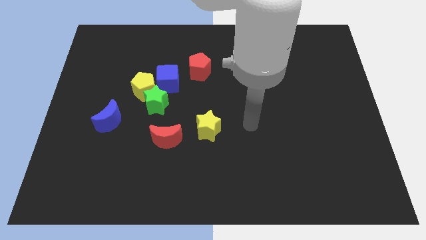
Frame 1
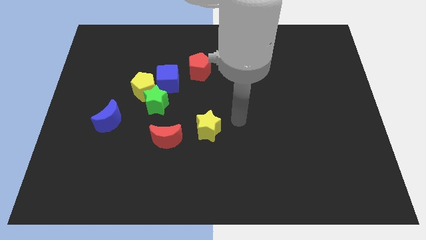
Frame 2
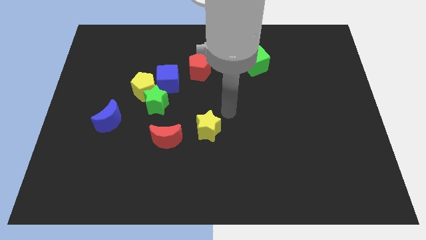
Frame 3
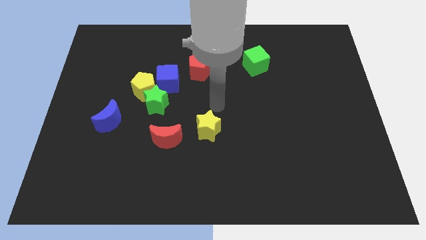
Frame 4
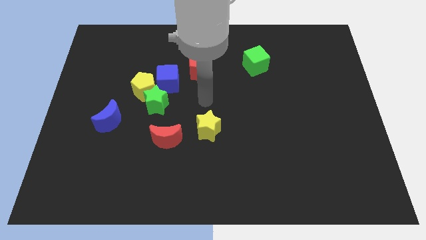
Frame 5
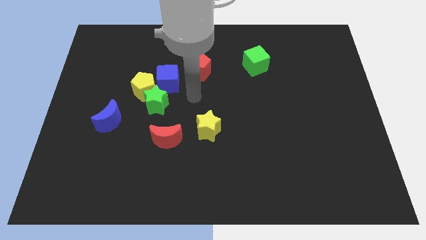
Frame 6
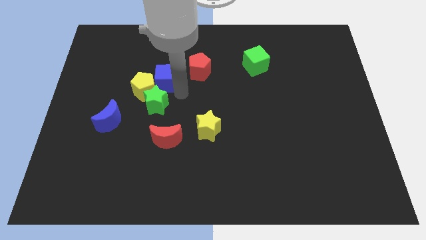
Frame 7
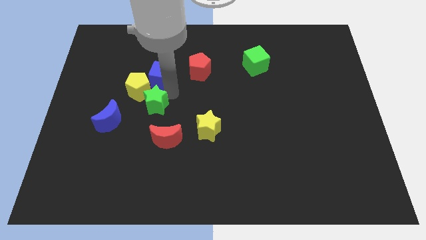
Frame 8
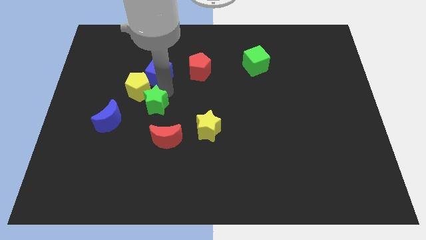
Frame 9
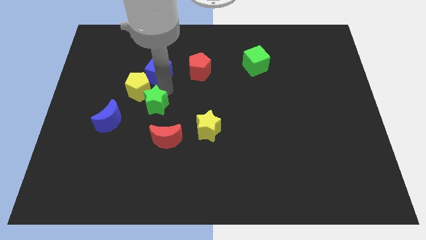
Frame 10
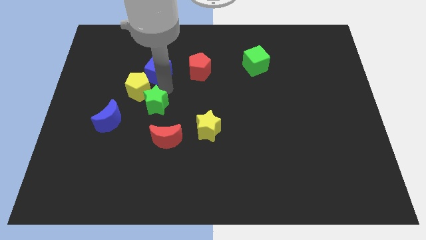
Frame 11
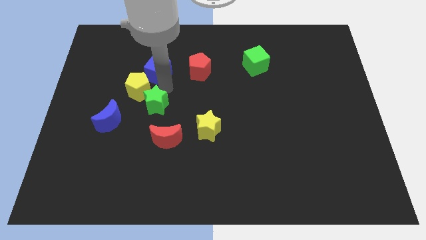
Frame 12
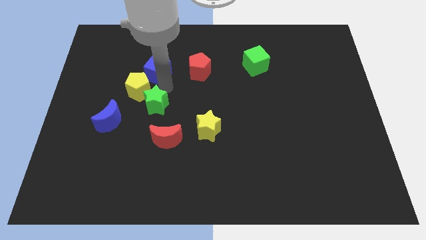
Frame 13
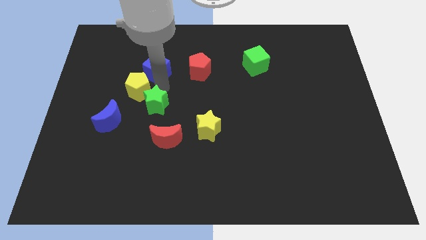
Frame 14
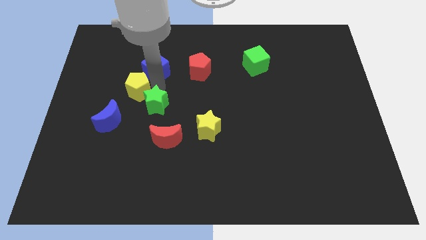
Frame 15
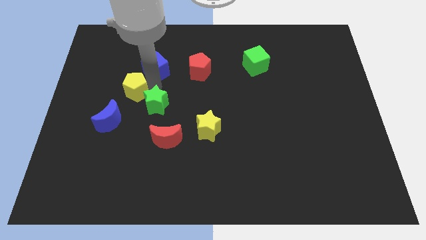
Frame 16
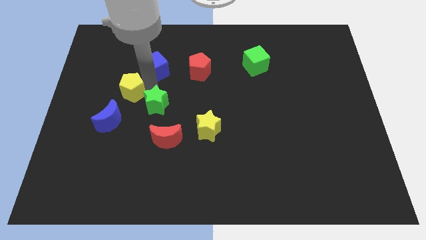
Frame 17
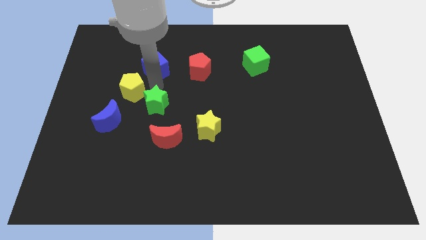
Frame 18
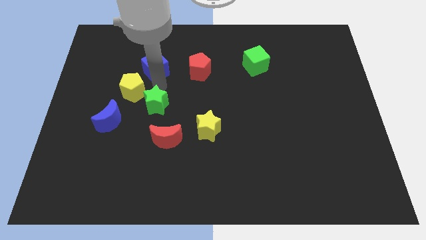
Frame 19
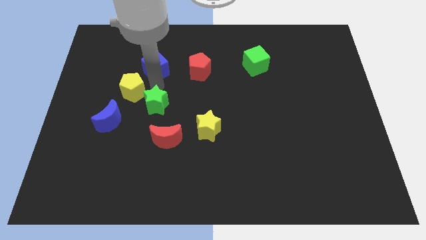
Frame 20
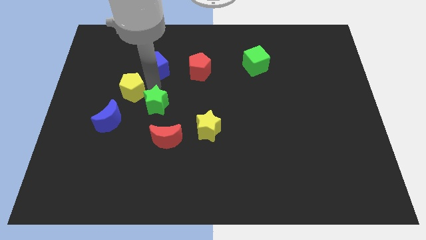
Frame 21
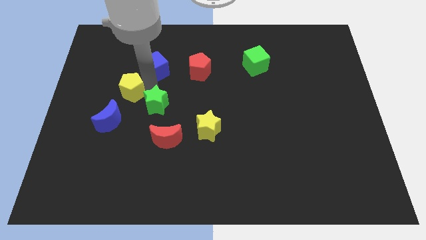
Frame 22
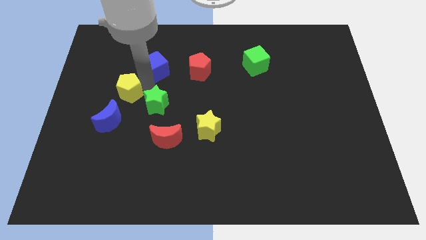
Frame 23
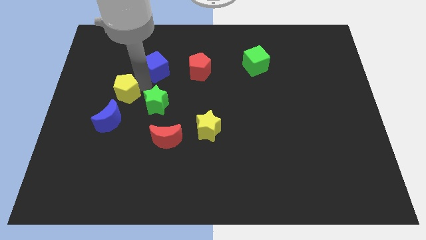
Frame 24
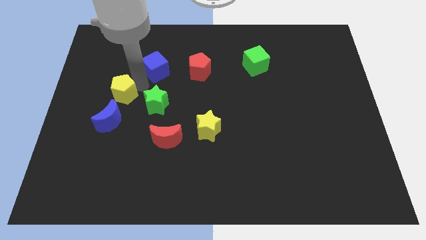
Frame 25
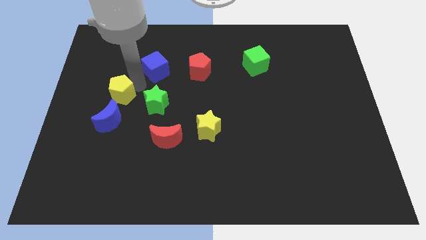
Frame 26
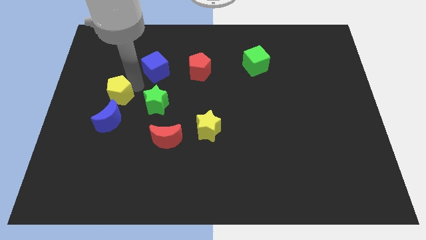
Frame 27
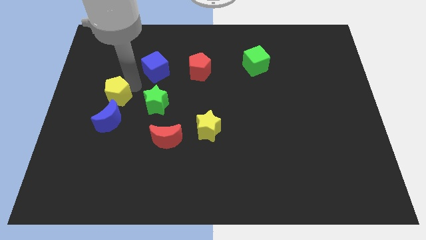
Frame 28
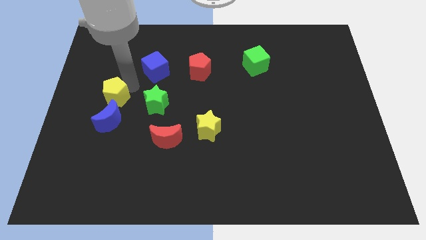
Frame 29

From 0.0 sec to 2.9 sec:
move the yellow pentagon away from the green star and blue cube

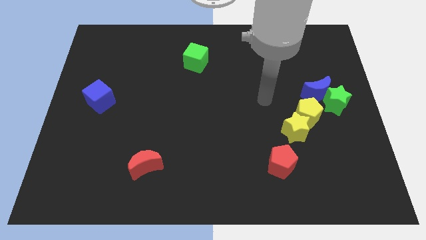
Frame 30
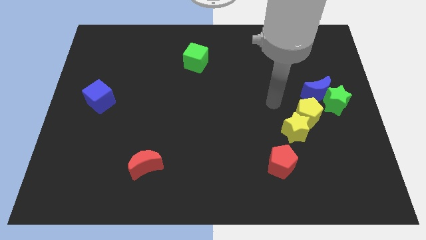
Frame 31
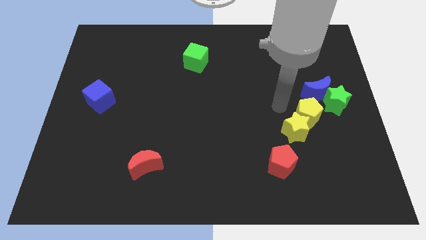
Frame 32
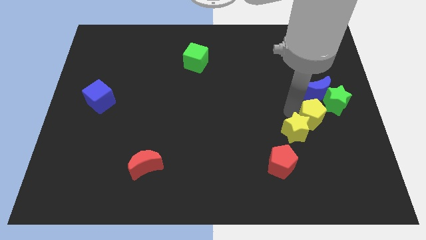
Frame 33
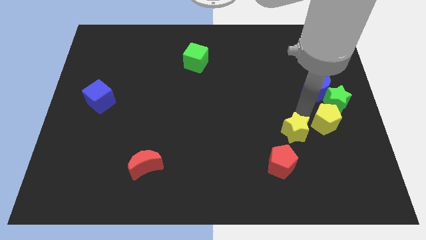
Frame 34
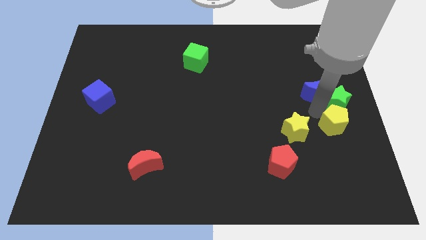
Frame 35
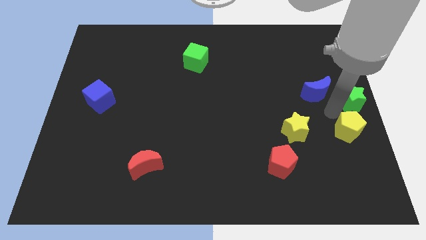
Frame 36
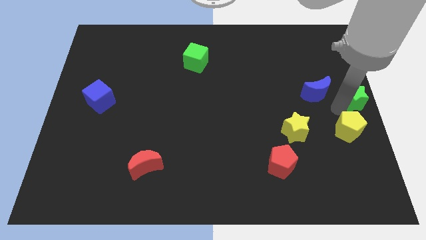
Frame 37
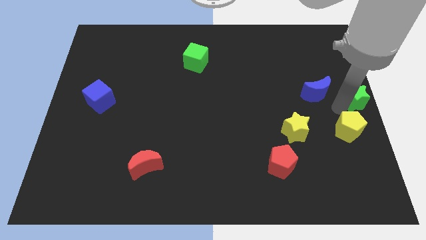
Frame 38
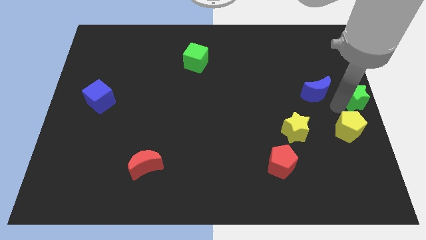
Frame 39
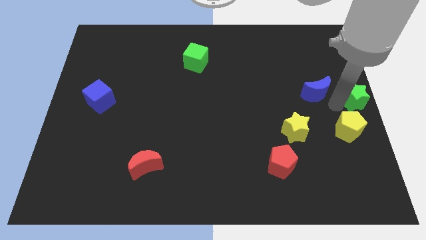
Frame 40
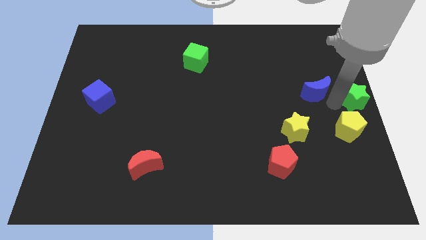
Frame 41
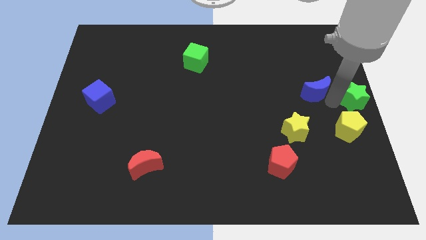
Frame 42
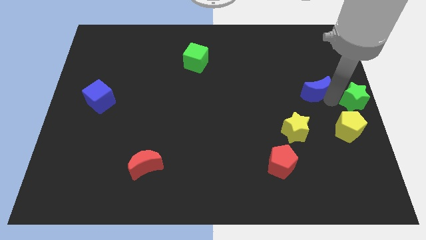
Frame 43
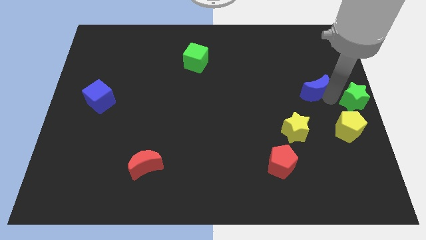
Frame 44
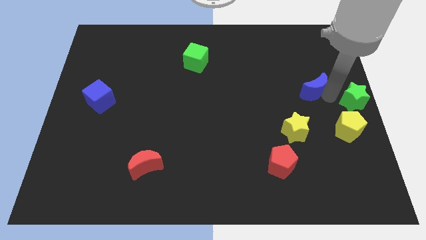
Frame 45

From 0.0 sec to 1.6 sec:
pull the blue moon apart from the green star and yellow pentagon

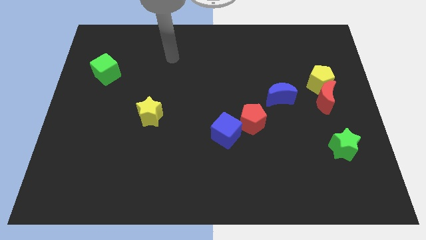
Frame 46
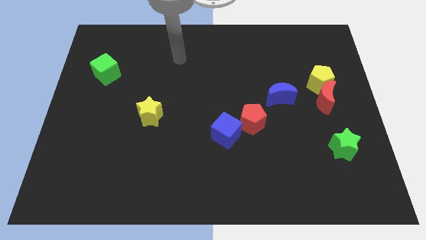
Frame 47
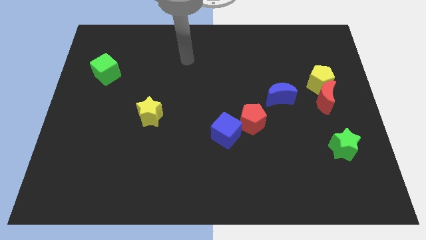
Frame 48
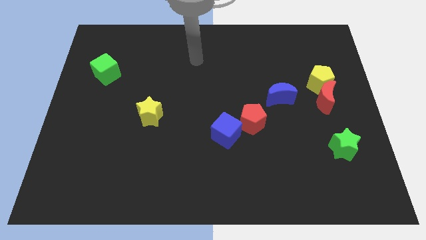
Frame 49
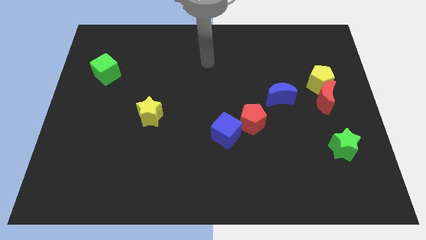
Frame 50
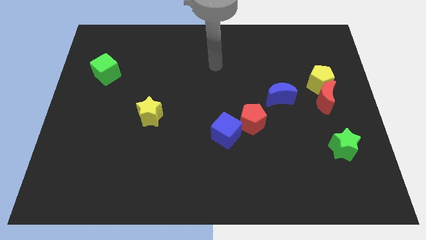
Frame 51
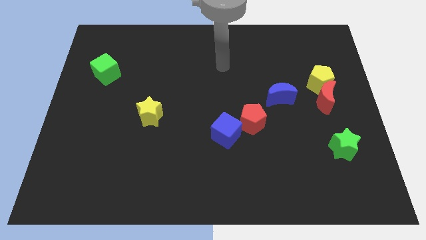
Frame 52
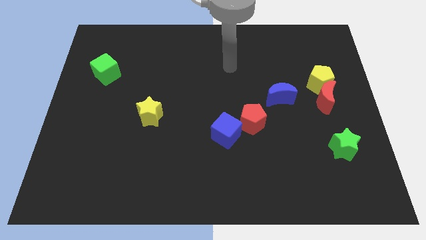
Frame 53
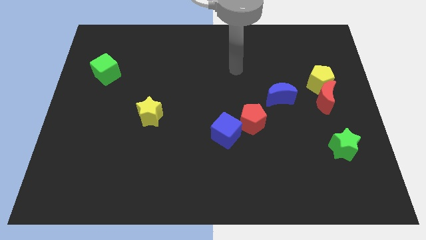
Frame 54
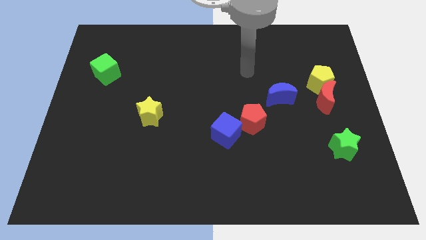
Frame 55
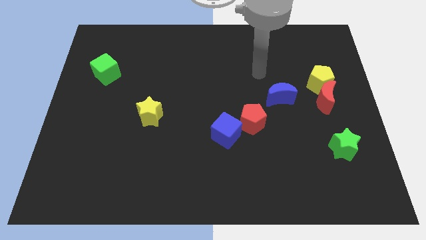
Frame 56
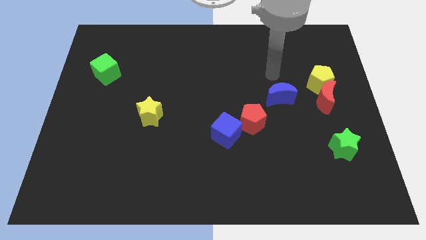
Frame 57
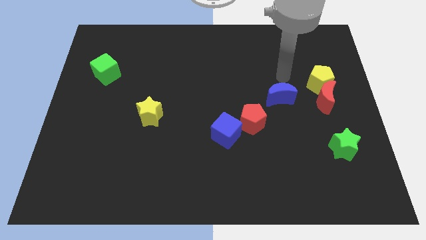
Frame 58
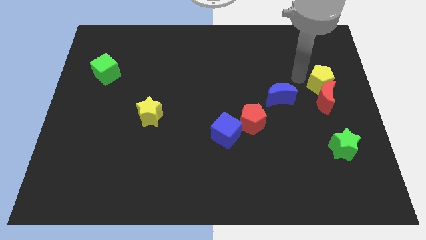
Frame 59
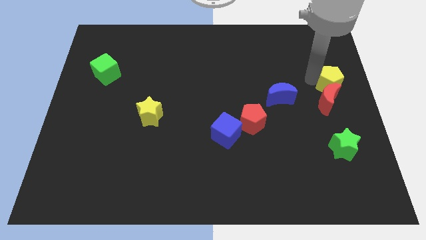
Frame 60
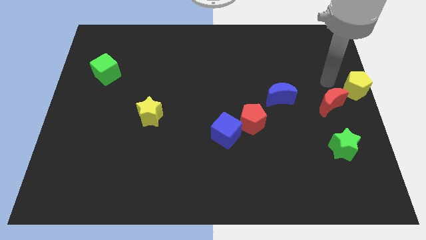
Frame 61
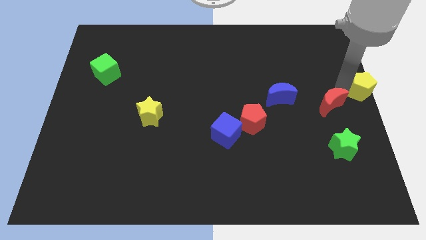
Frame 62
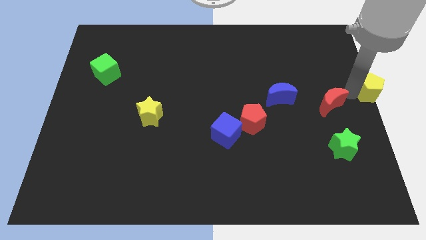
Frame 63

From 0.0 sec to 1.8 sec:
move the red moon away from the yellow pentagon

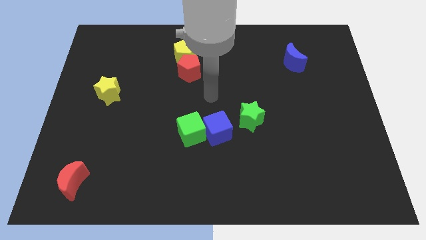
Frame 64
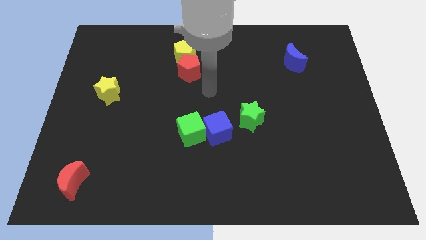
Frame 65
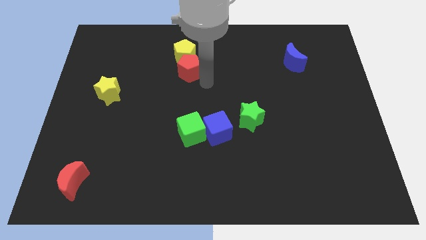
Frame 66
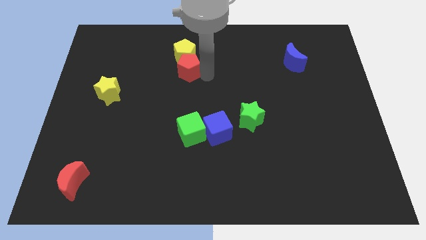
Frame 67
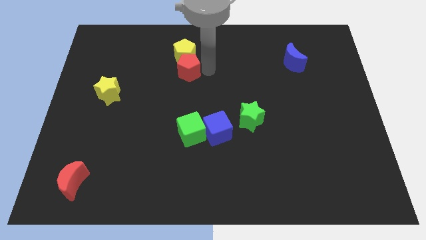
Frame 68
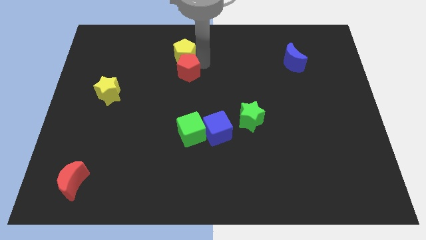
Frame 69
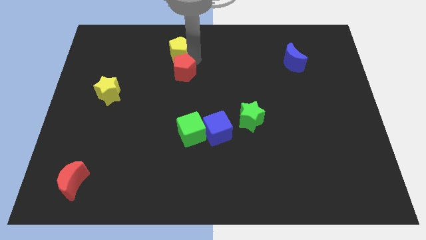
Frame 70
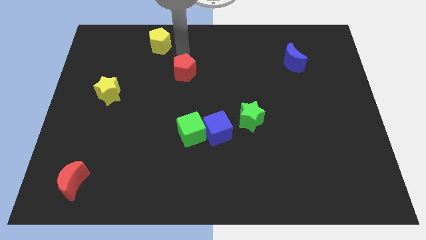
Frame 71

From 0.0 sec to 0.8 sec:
move the red pentagon away from the yellow pentagon

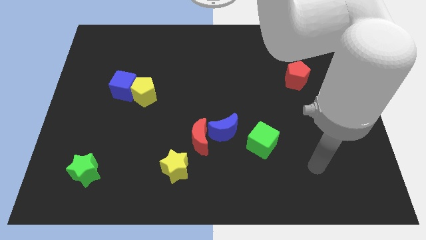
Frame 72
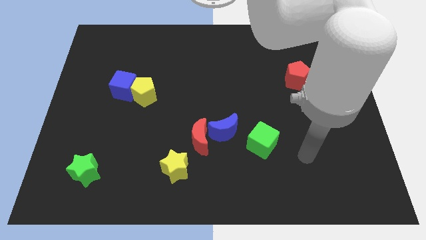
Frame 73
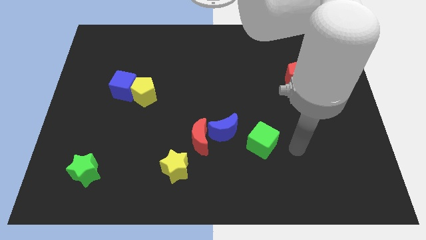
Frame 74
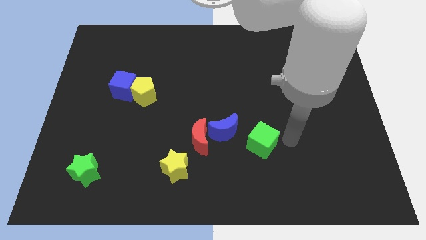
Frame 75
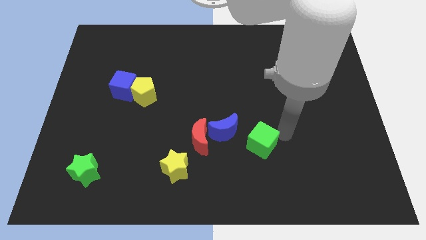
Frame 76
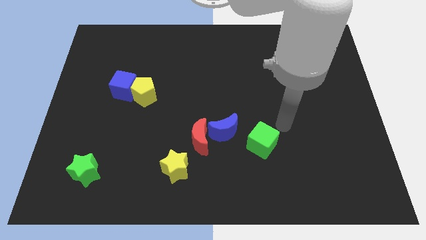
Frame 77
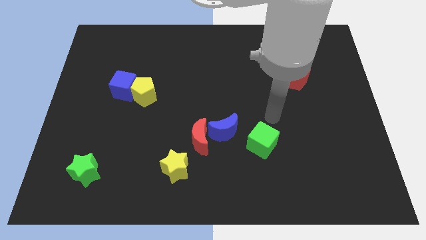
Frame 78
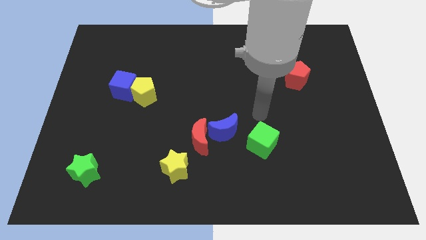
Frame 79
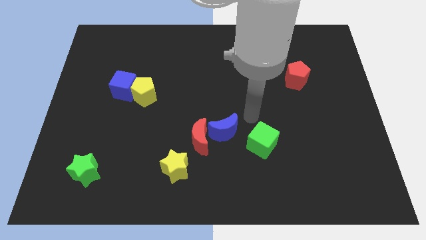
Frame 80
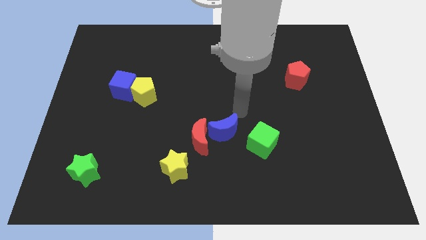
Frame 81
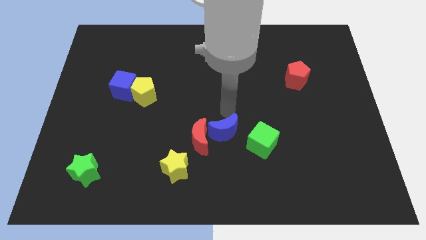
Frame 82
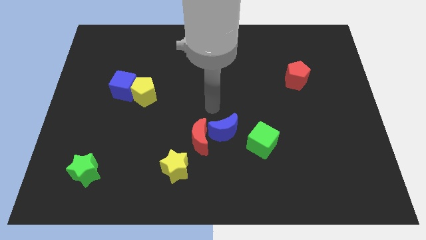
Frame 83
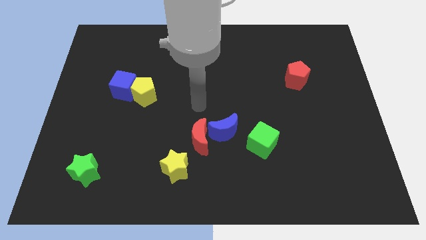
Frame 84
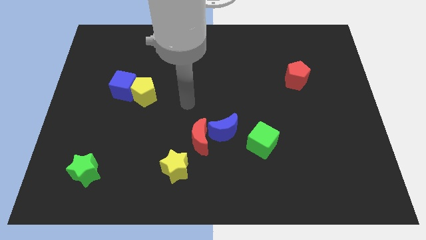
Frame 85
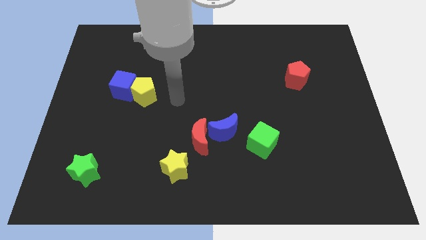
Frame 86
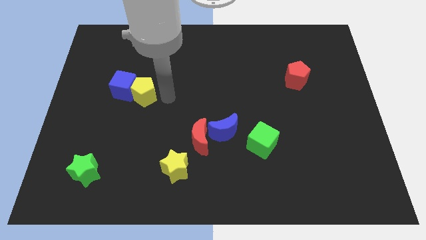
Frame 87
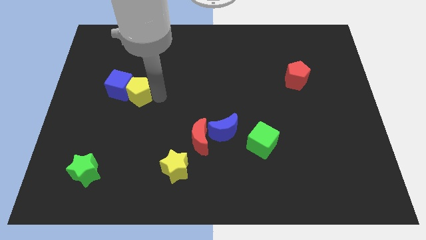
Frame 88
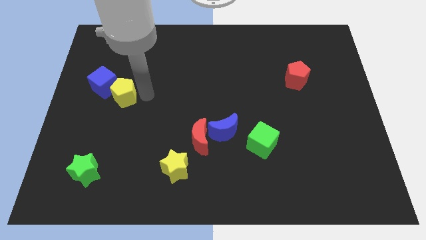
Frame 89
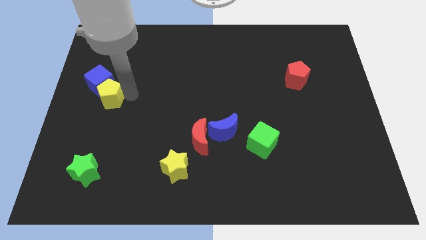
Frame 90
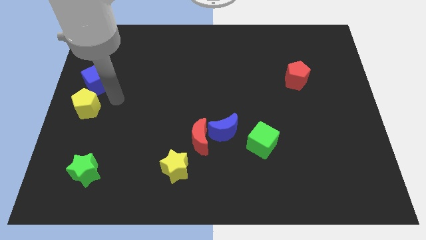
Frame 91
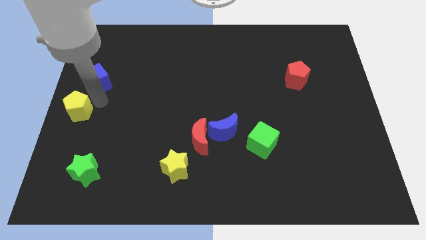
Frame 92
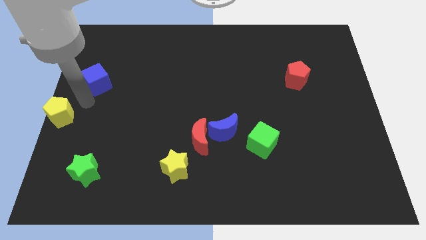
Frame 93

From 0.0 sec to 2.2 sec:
pull the blue cube apart from the yellow pentagon

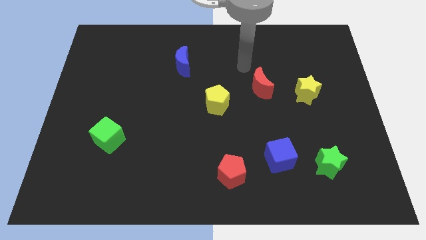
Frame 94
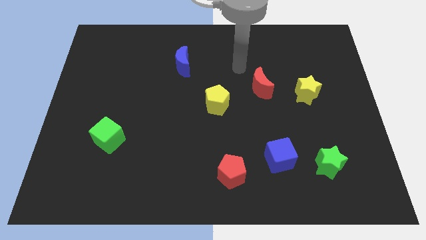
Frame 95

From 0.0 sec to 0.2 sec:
pull the blue cube apart from the green star
